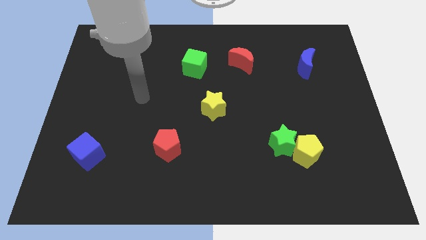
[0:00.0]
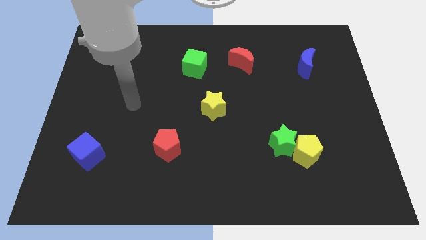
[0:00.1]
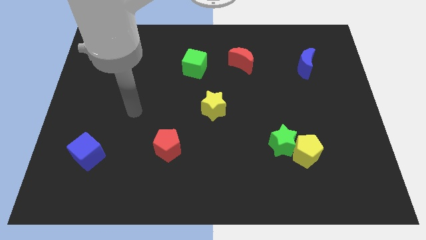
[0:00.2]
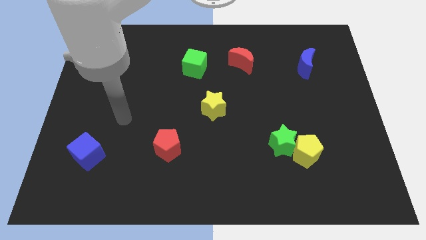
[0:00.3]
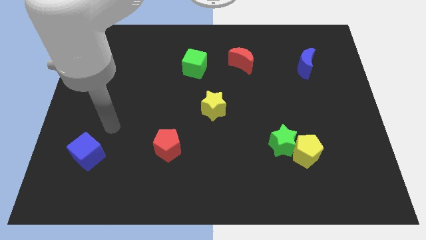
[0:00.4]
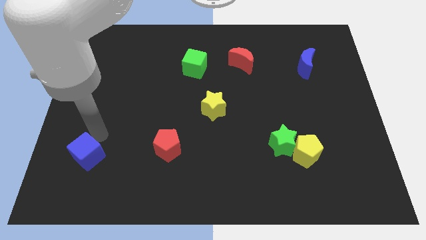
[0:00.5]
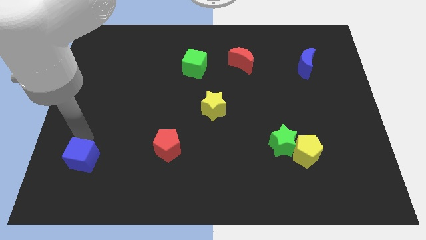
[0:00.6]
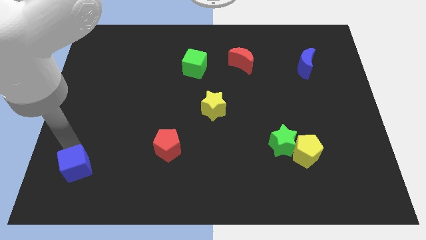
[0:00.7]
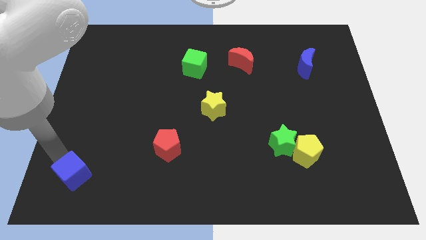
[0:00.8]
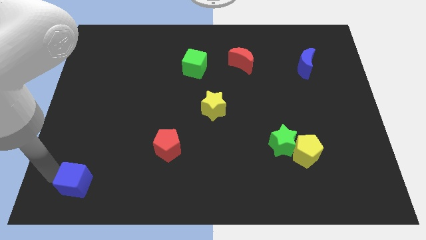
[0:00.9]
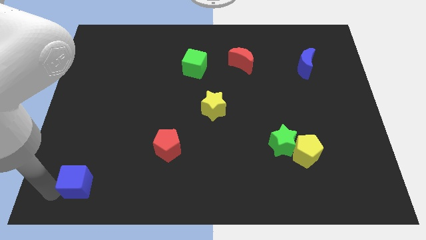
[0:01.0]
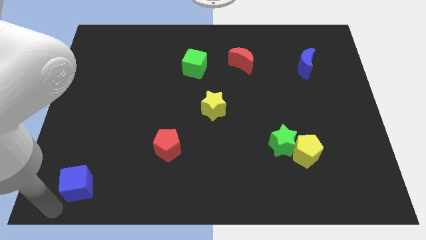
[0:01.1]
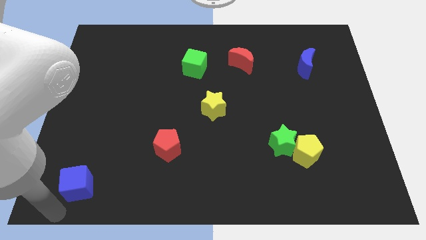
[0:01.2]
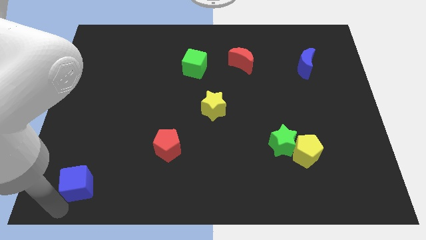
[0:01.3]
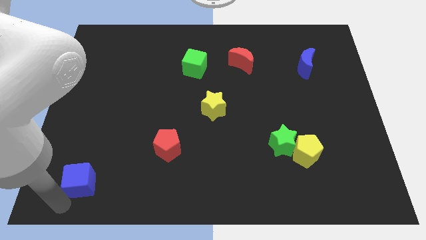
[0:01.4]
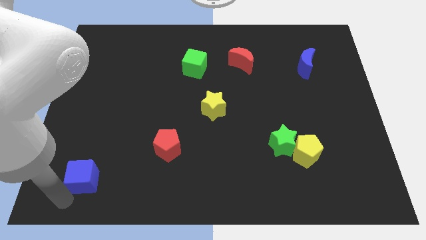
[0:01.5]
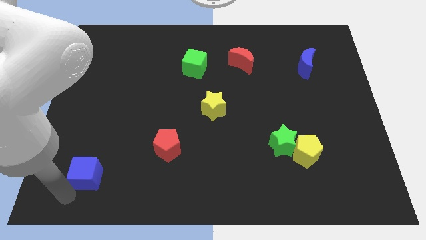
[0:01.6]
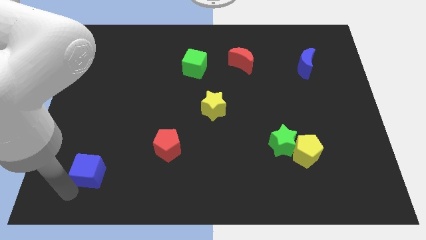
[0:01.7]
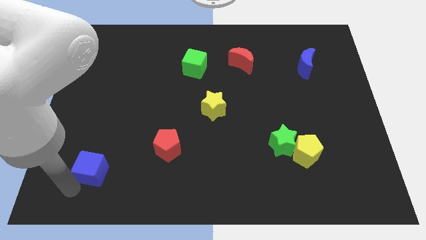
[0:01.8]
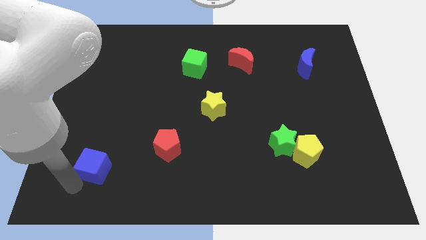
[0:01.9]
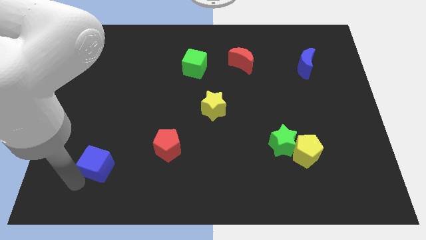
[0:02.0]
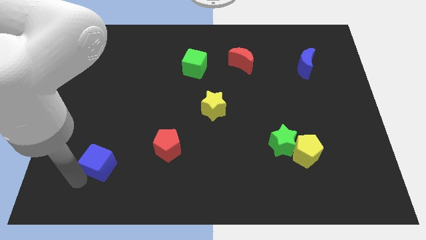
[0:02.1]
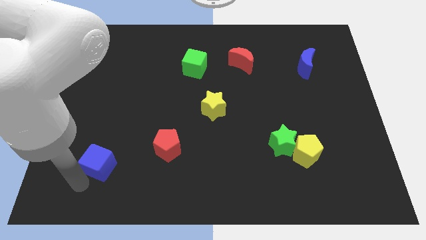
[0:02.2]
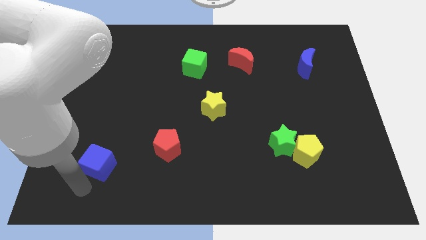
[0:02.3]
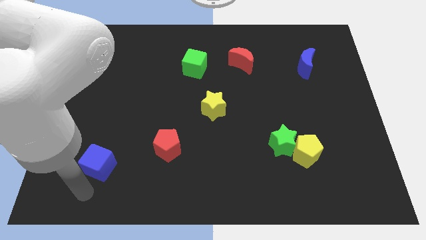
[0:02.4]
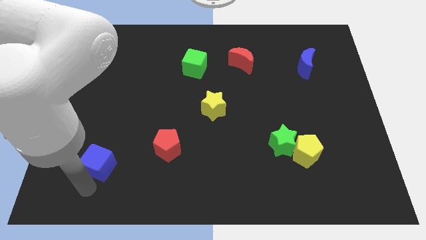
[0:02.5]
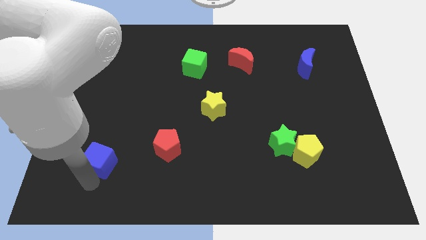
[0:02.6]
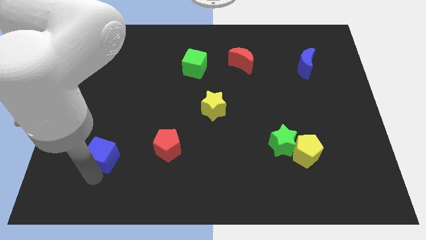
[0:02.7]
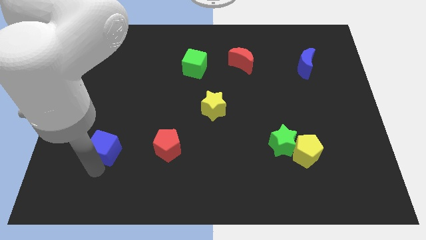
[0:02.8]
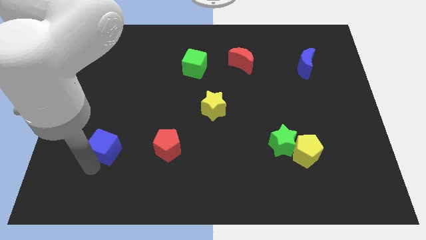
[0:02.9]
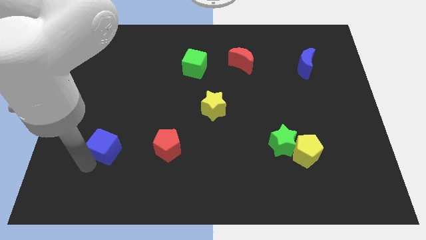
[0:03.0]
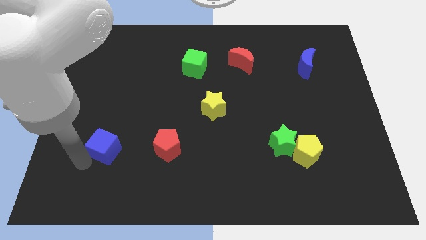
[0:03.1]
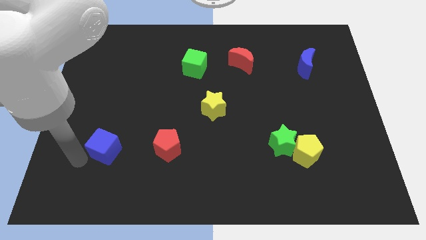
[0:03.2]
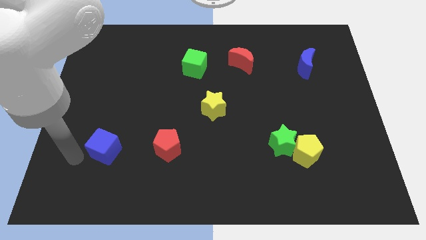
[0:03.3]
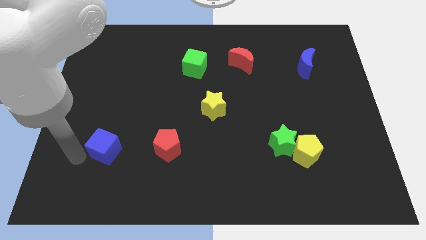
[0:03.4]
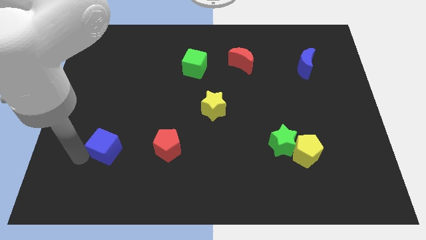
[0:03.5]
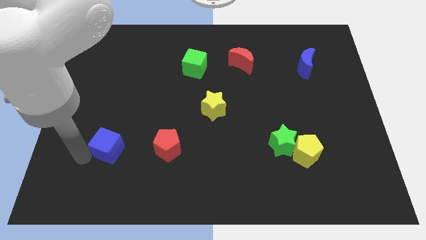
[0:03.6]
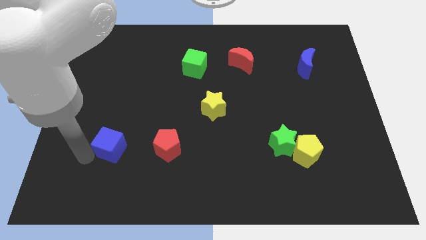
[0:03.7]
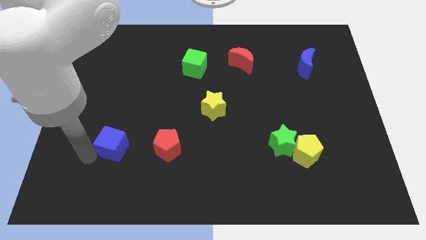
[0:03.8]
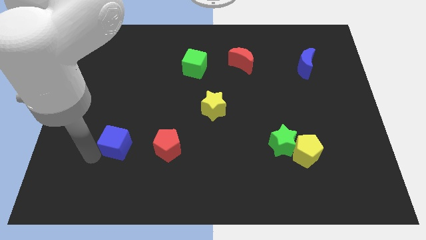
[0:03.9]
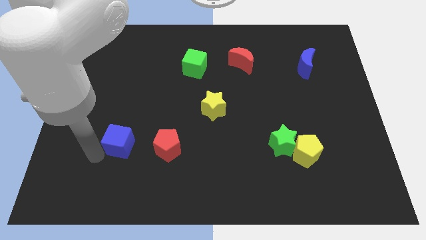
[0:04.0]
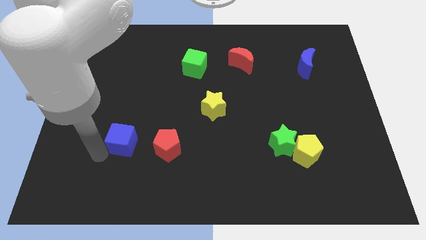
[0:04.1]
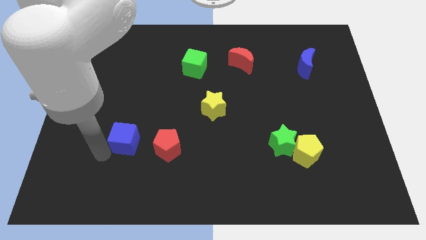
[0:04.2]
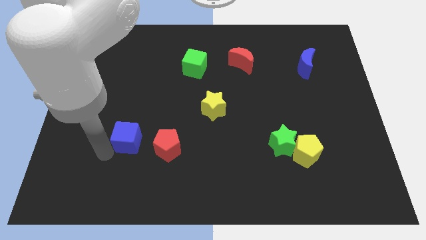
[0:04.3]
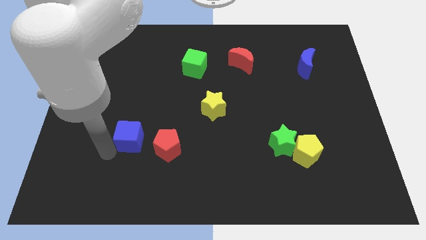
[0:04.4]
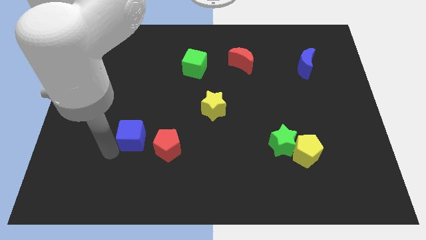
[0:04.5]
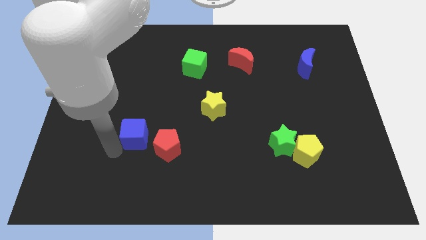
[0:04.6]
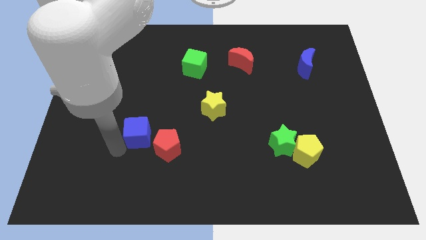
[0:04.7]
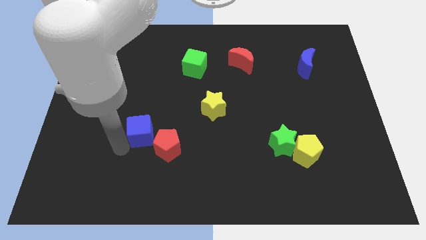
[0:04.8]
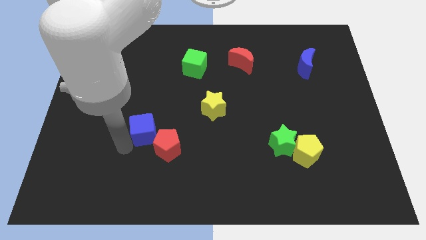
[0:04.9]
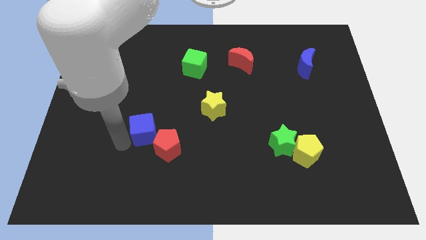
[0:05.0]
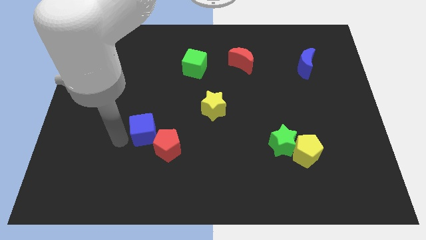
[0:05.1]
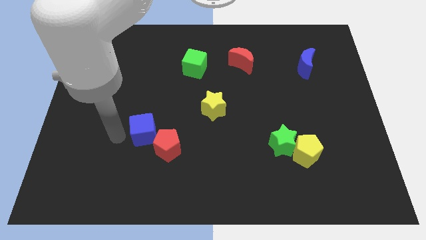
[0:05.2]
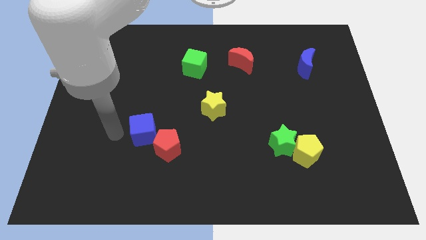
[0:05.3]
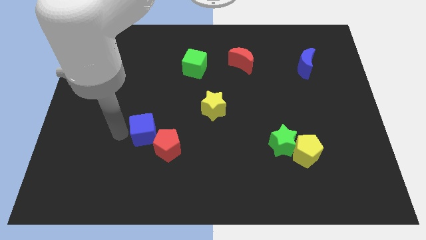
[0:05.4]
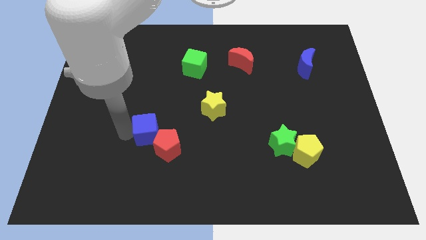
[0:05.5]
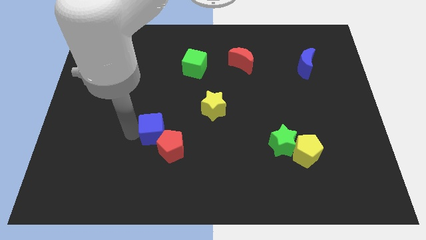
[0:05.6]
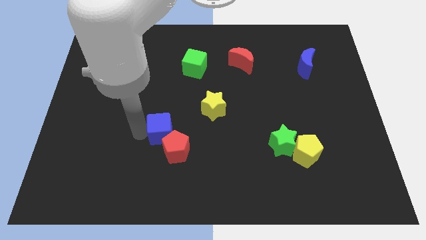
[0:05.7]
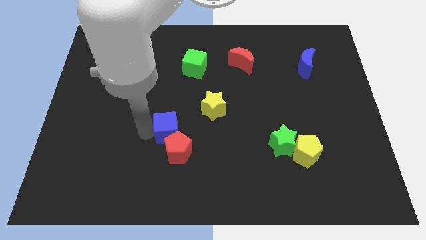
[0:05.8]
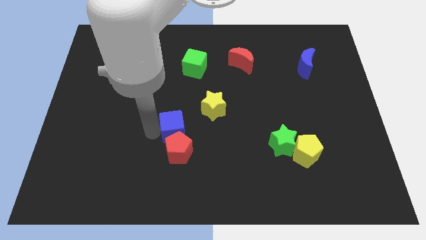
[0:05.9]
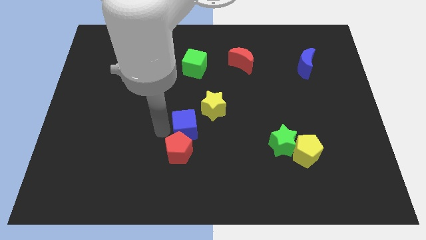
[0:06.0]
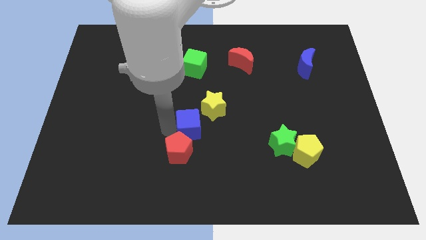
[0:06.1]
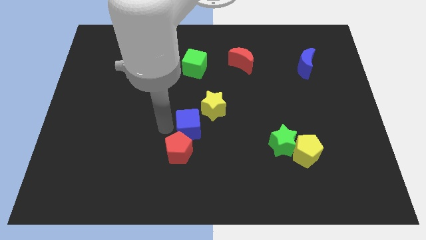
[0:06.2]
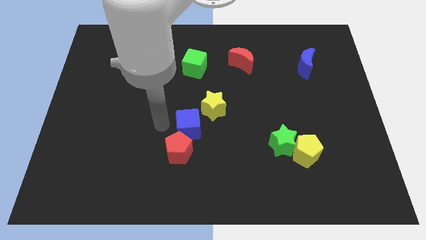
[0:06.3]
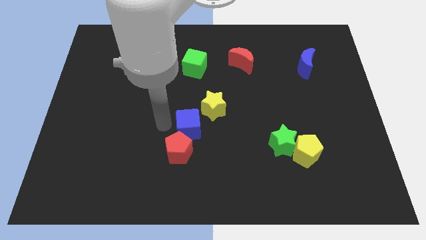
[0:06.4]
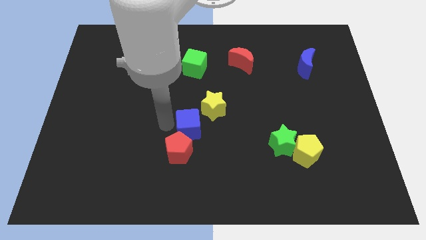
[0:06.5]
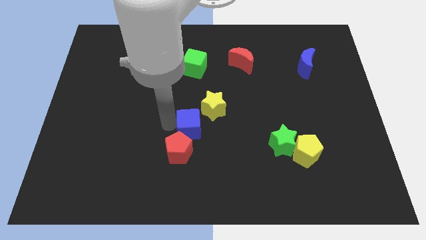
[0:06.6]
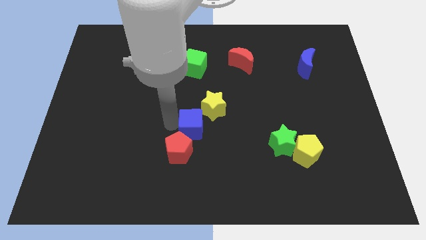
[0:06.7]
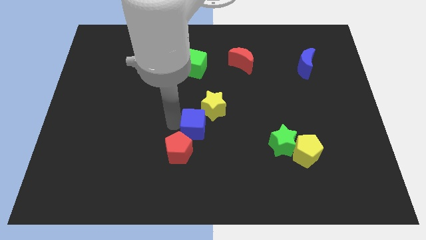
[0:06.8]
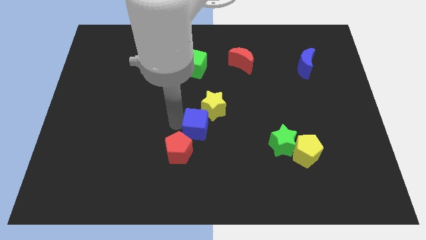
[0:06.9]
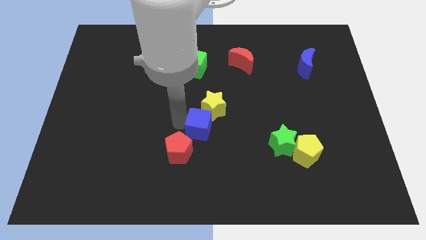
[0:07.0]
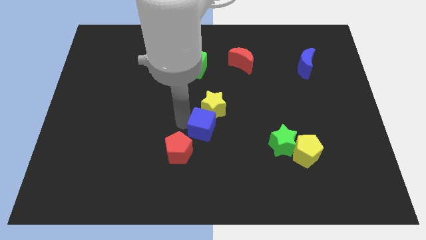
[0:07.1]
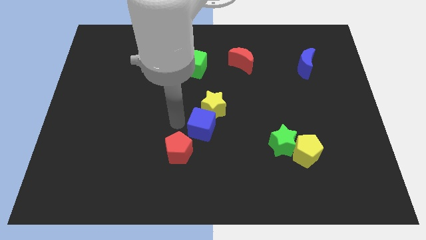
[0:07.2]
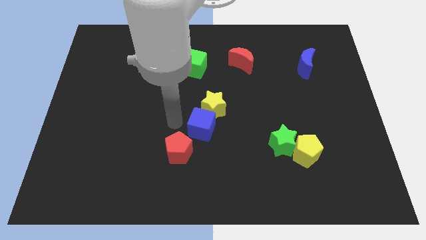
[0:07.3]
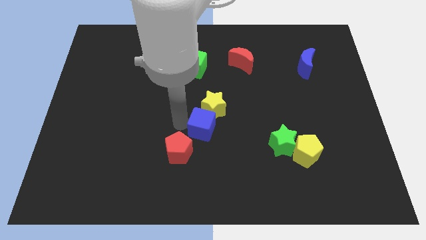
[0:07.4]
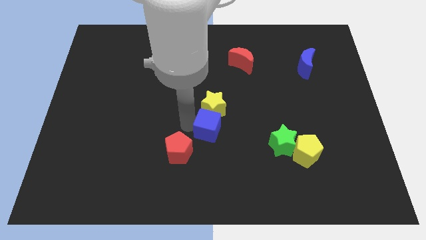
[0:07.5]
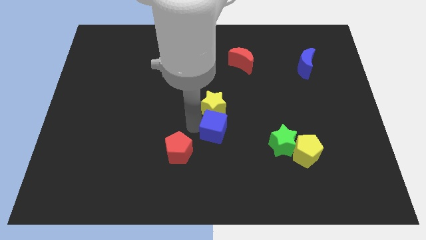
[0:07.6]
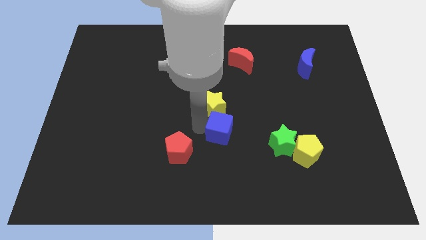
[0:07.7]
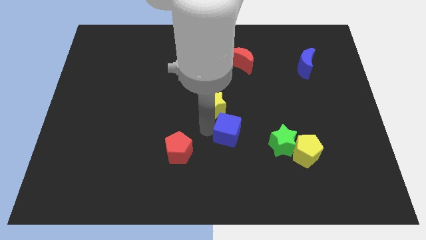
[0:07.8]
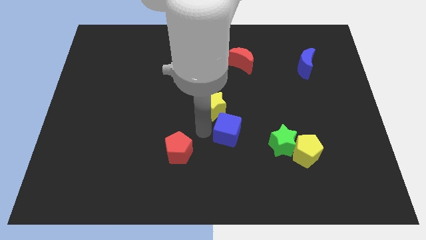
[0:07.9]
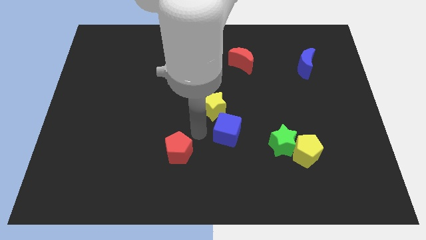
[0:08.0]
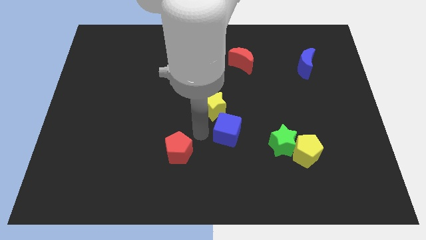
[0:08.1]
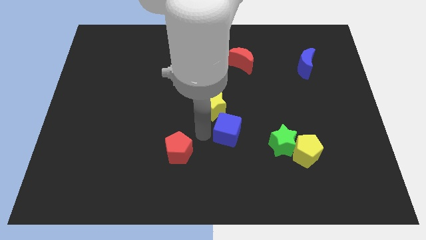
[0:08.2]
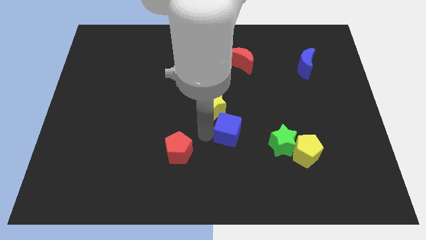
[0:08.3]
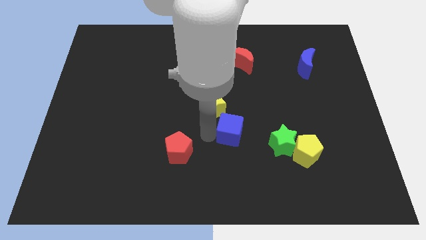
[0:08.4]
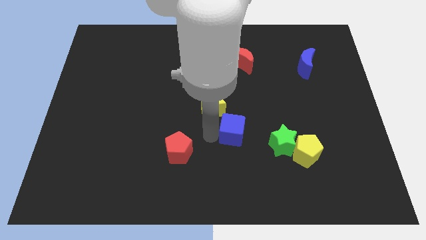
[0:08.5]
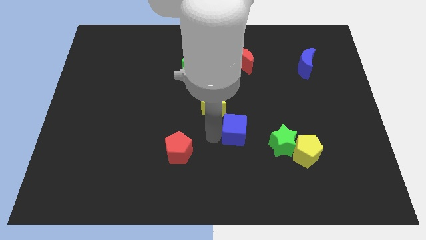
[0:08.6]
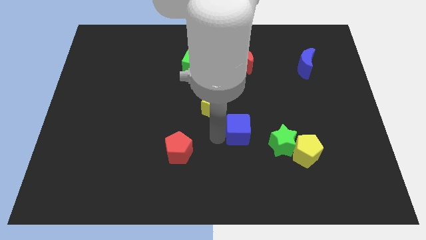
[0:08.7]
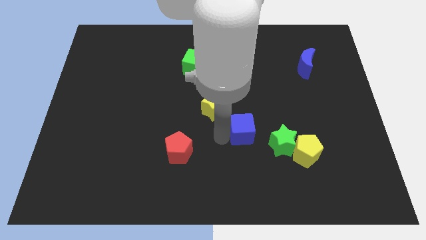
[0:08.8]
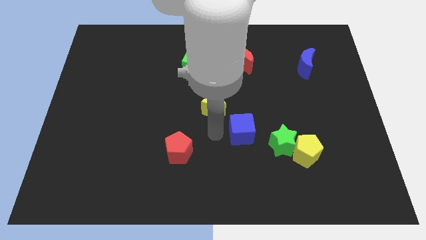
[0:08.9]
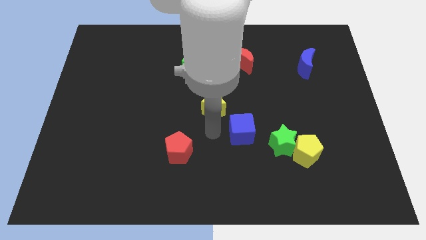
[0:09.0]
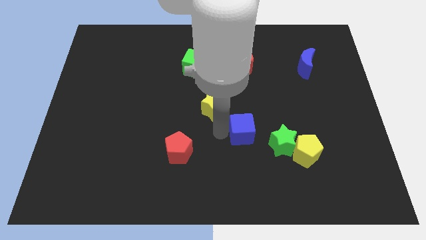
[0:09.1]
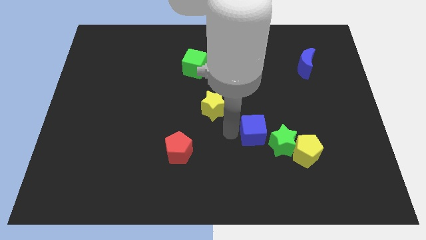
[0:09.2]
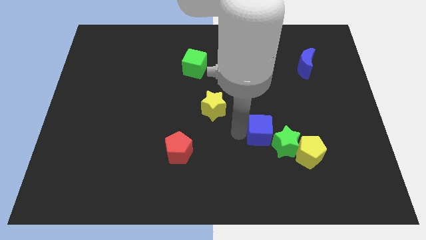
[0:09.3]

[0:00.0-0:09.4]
slide the blue cube to the top left side of the yellow pentagon
